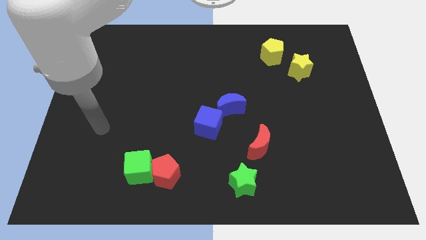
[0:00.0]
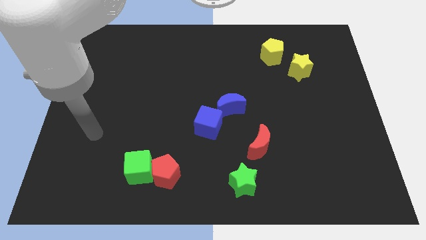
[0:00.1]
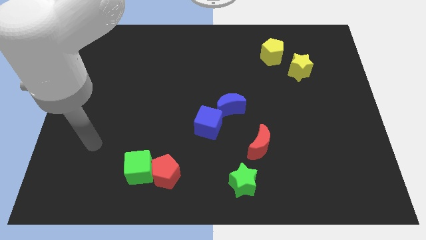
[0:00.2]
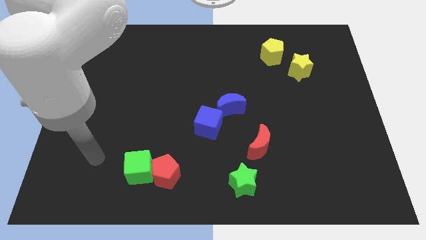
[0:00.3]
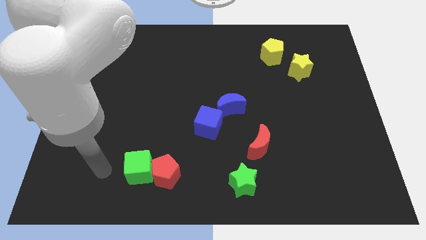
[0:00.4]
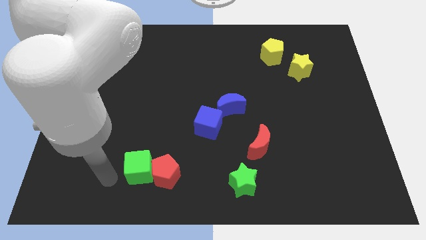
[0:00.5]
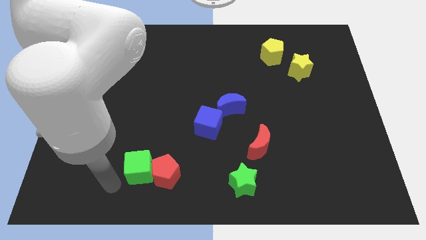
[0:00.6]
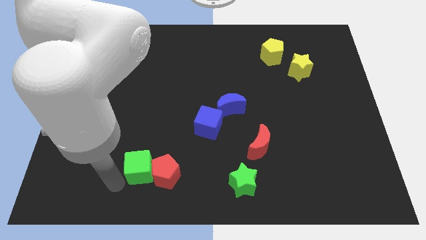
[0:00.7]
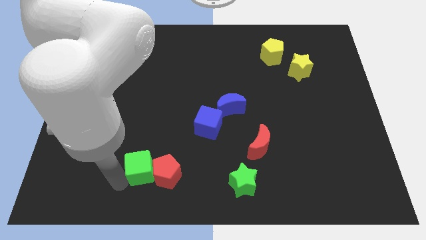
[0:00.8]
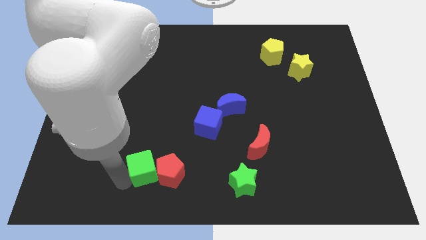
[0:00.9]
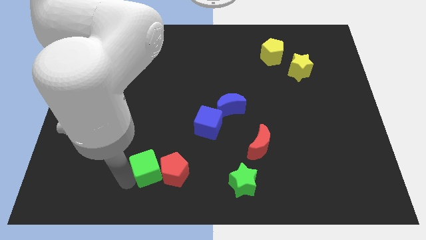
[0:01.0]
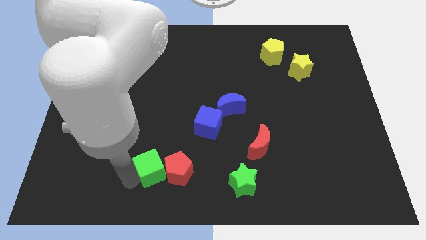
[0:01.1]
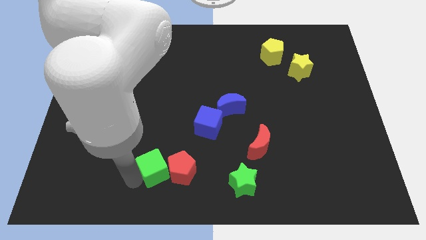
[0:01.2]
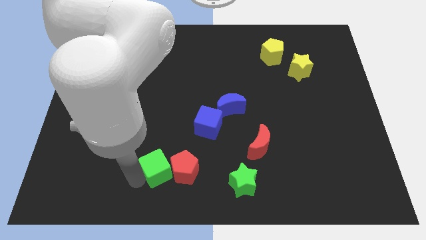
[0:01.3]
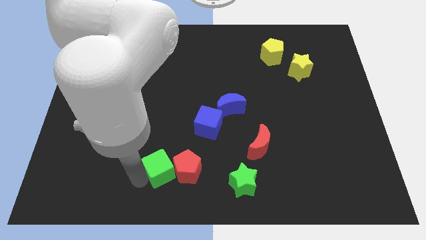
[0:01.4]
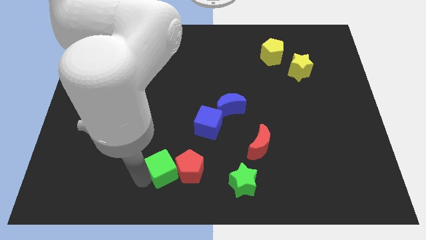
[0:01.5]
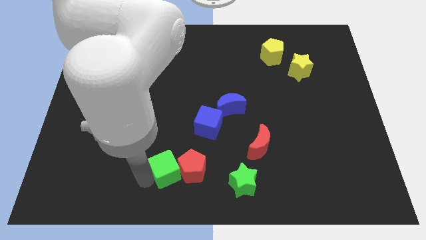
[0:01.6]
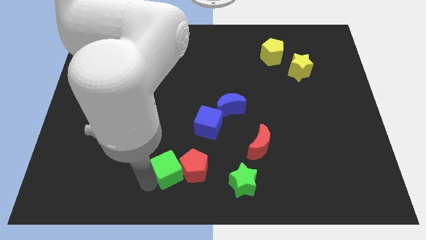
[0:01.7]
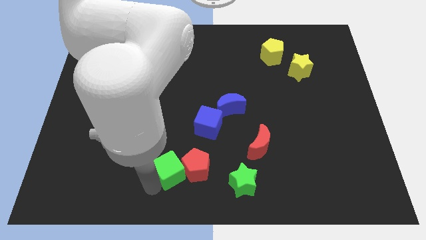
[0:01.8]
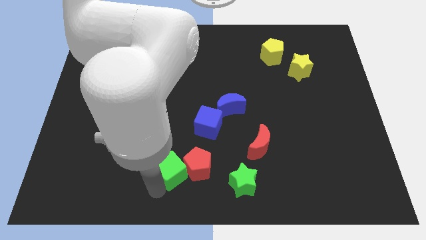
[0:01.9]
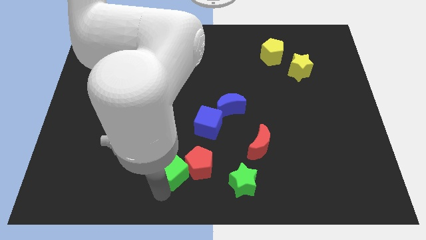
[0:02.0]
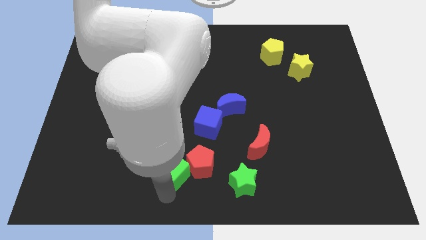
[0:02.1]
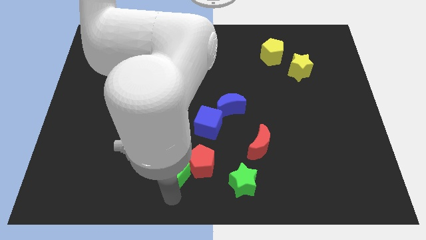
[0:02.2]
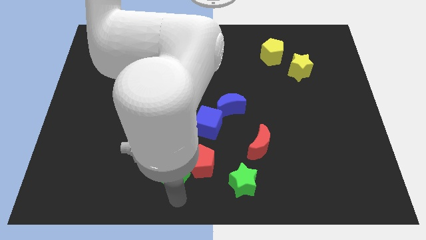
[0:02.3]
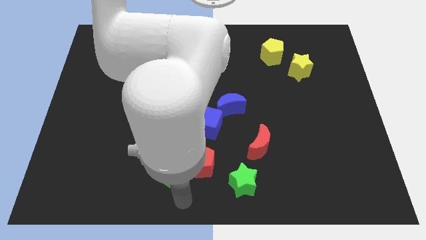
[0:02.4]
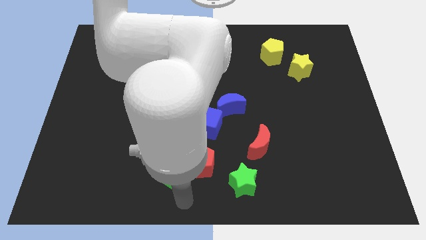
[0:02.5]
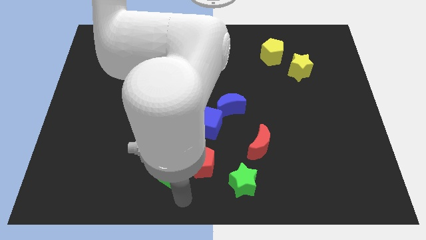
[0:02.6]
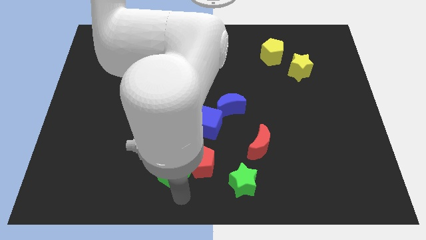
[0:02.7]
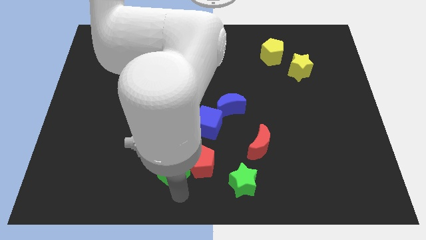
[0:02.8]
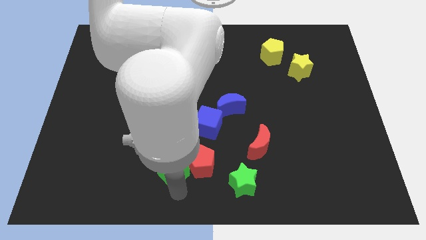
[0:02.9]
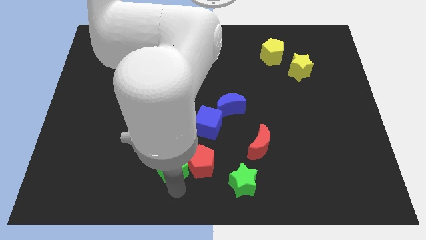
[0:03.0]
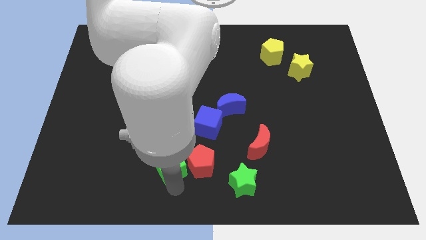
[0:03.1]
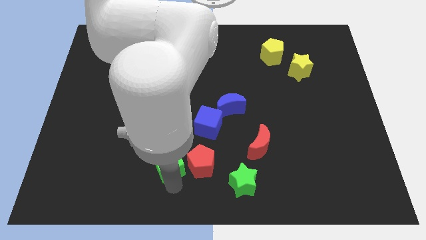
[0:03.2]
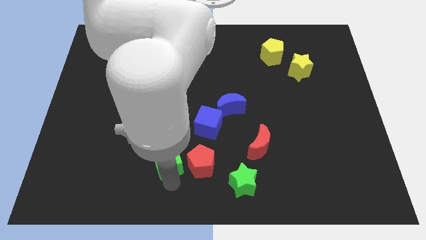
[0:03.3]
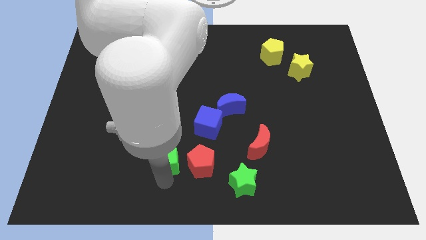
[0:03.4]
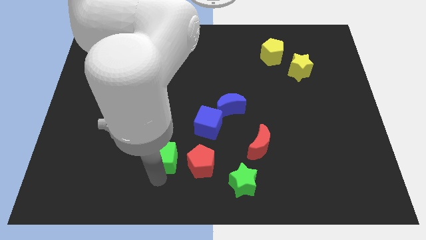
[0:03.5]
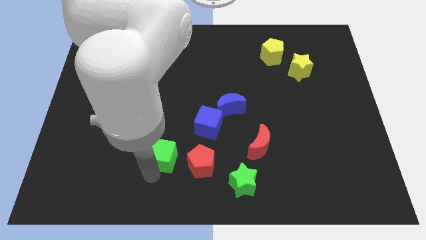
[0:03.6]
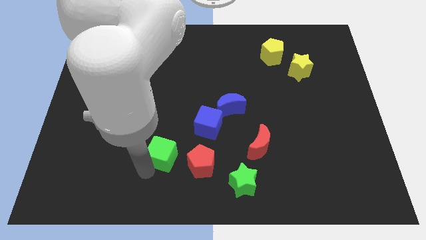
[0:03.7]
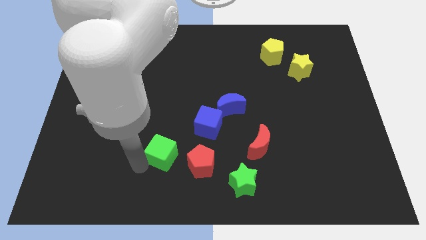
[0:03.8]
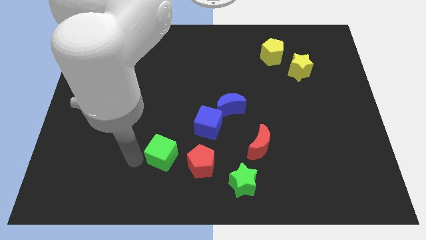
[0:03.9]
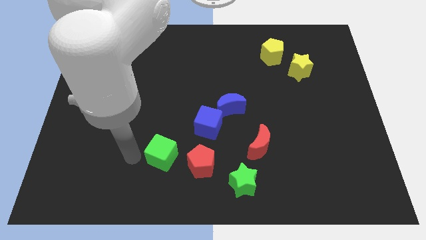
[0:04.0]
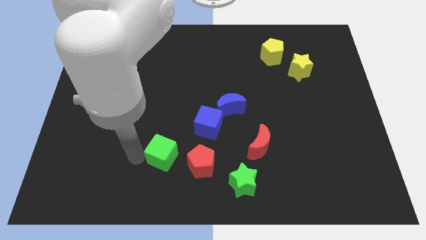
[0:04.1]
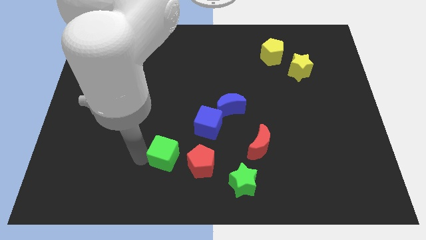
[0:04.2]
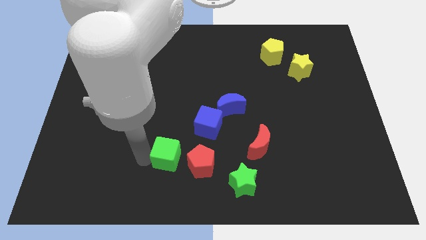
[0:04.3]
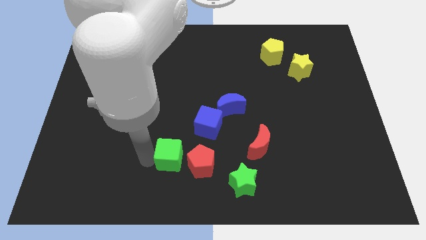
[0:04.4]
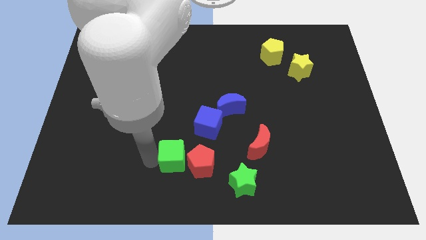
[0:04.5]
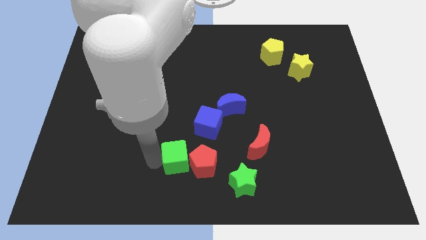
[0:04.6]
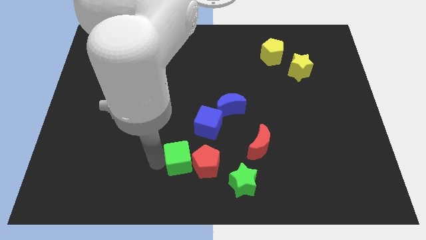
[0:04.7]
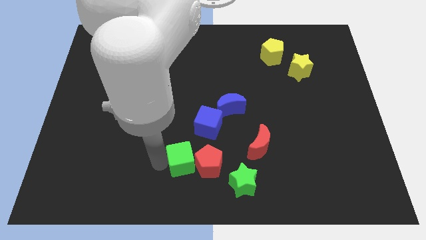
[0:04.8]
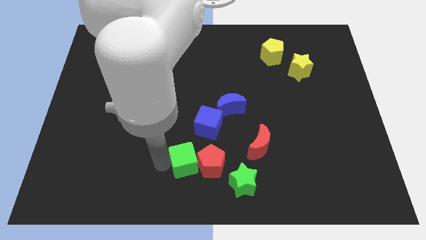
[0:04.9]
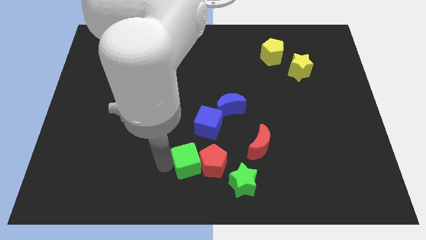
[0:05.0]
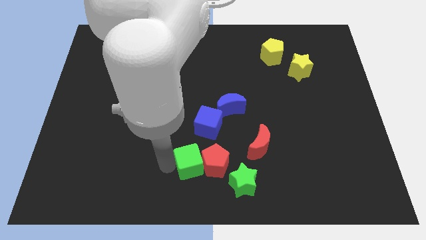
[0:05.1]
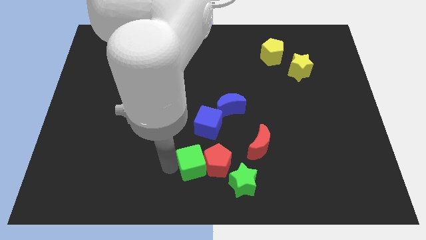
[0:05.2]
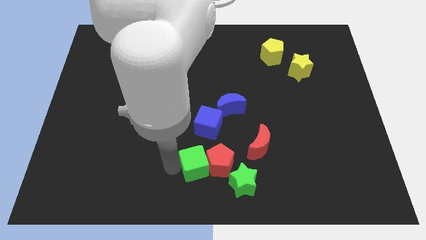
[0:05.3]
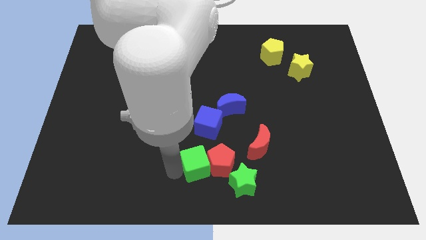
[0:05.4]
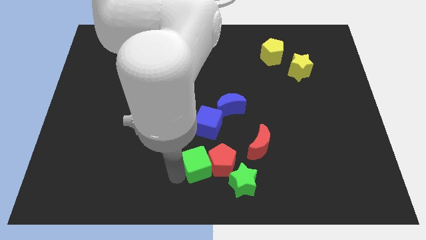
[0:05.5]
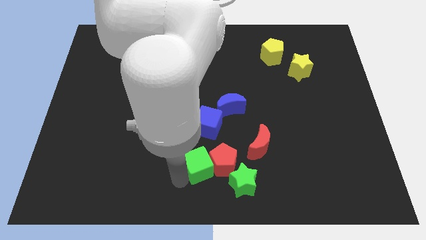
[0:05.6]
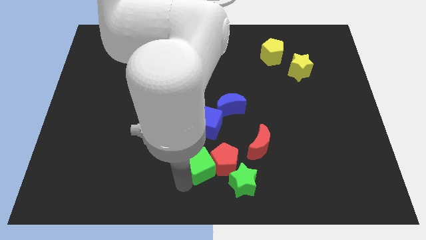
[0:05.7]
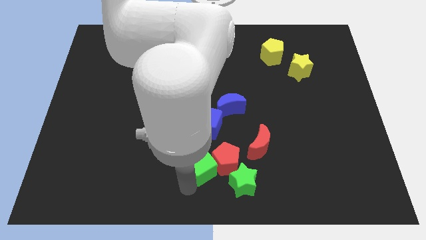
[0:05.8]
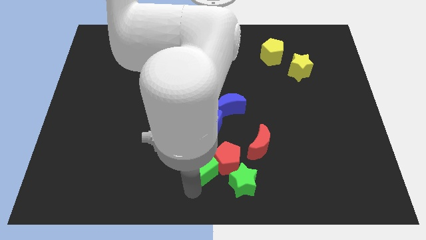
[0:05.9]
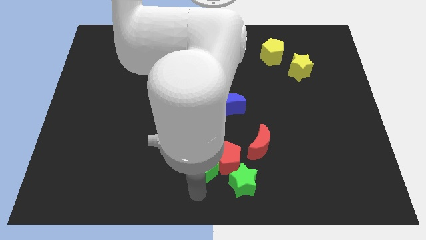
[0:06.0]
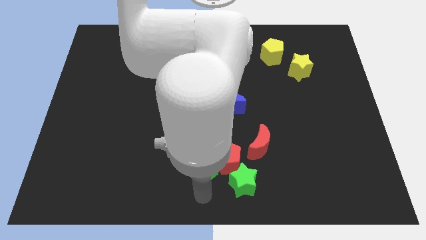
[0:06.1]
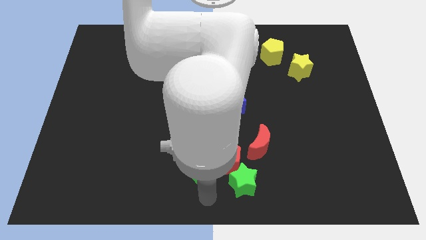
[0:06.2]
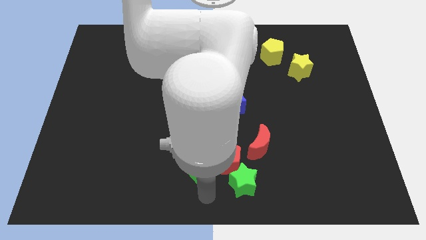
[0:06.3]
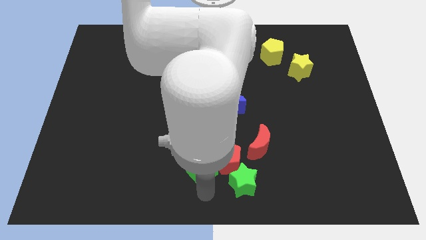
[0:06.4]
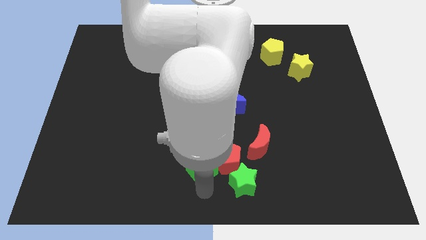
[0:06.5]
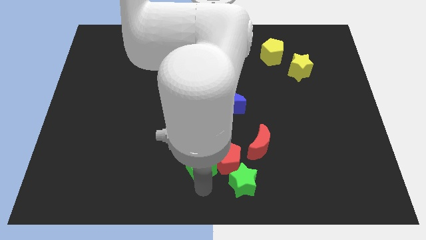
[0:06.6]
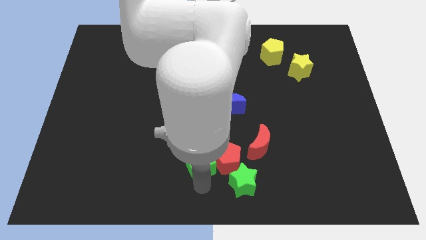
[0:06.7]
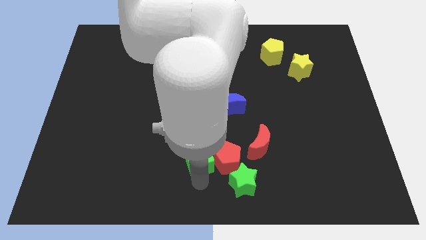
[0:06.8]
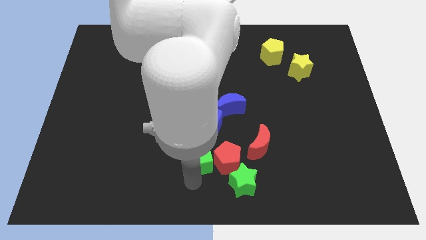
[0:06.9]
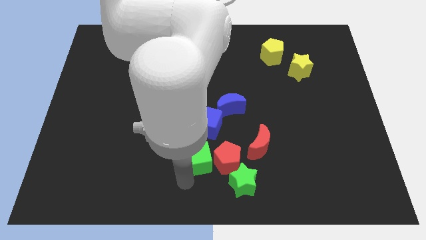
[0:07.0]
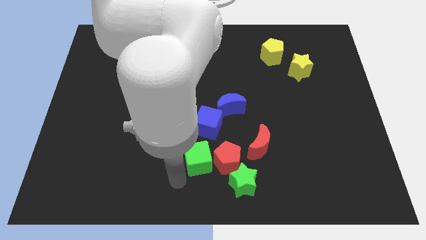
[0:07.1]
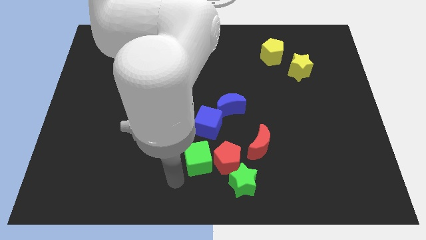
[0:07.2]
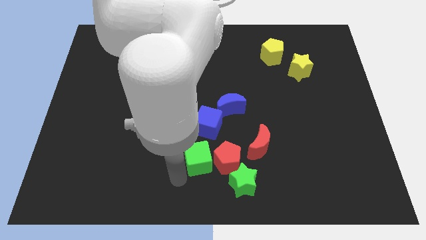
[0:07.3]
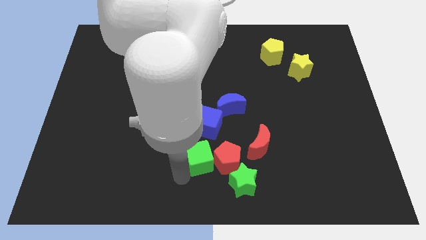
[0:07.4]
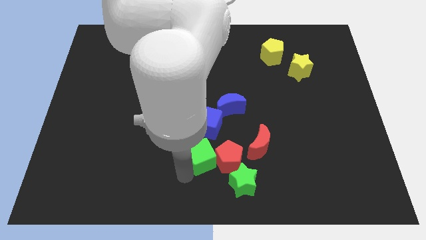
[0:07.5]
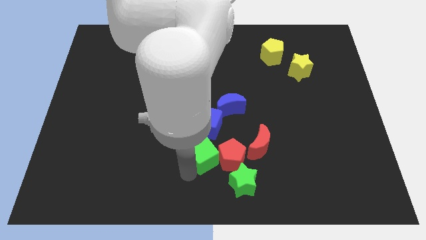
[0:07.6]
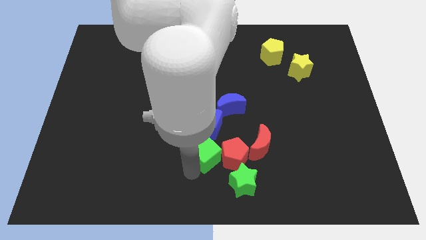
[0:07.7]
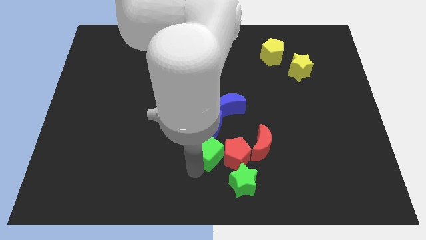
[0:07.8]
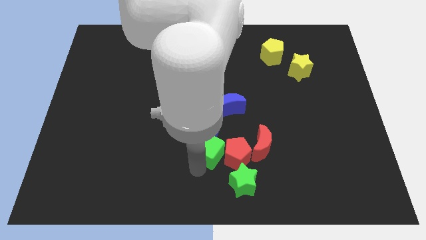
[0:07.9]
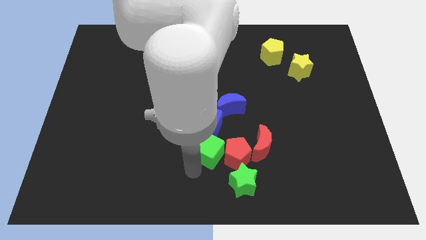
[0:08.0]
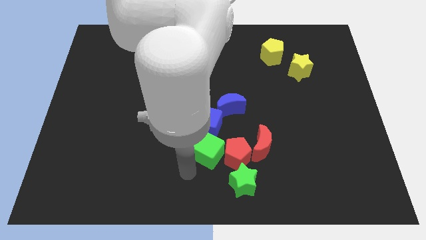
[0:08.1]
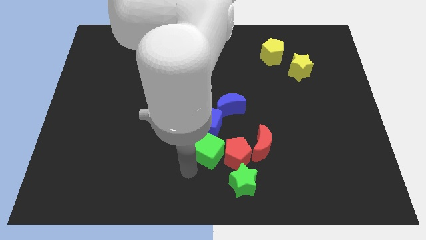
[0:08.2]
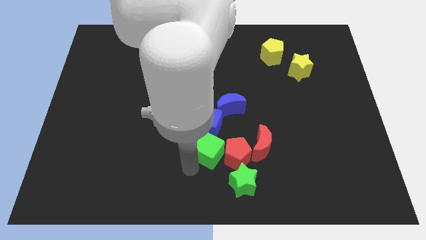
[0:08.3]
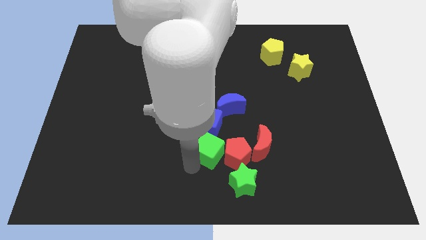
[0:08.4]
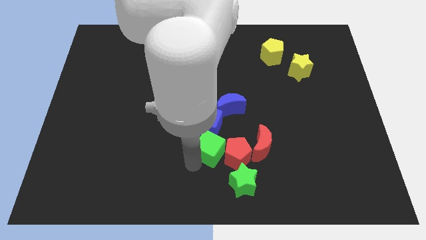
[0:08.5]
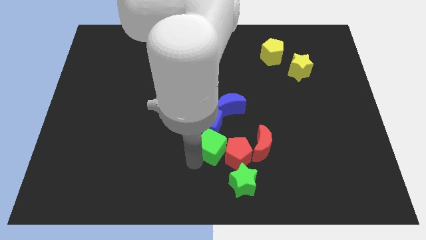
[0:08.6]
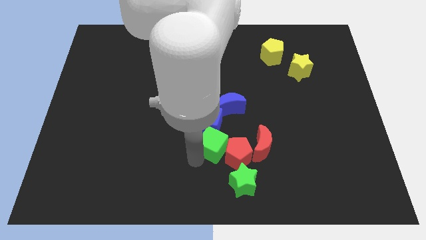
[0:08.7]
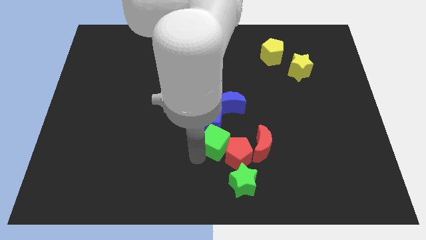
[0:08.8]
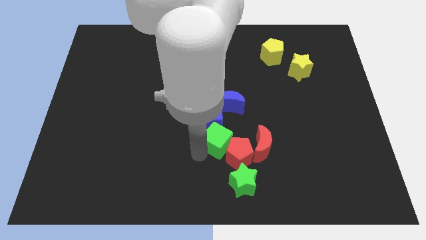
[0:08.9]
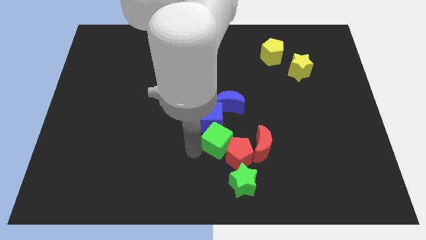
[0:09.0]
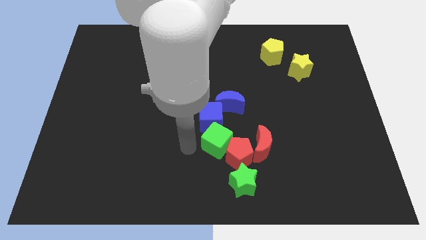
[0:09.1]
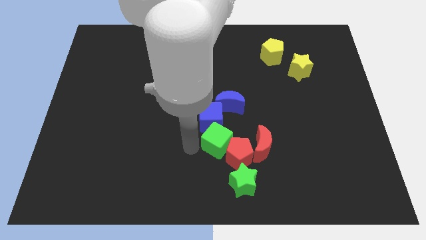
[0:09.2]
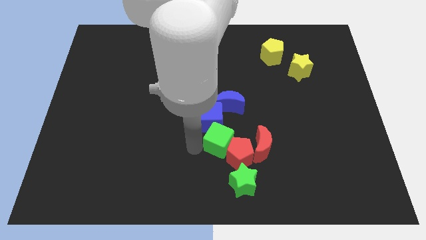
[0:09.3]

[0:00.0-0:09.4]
slide the green cube to the top side of the green star
